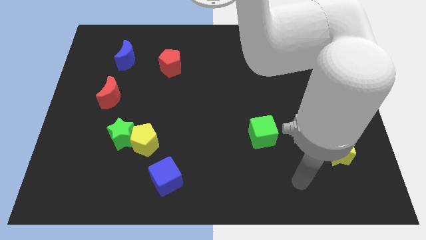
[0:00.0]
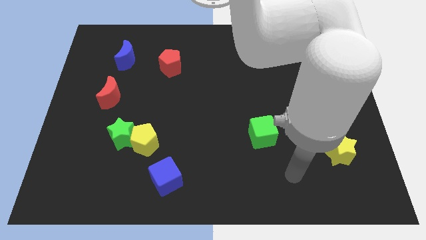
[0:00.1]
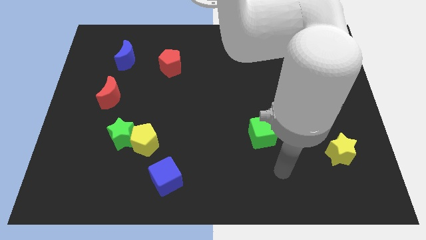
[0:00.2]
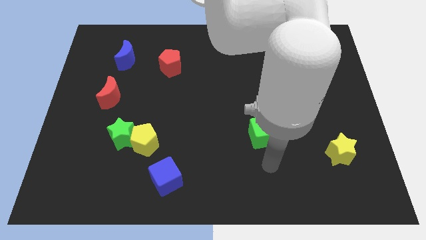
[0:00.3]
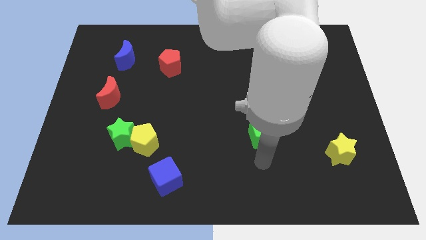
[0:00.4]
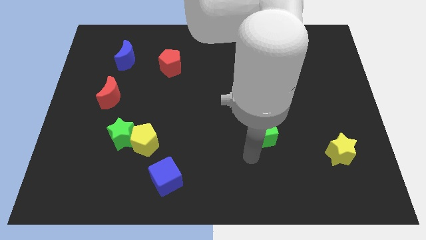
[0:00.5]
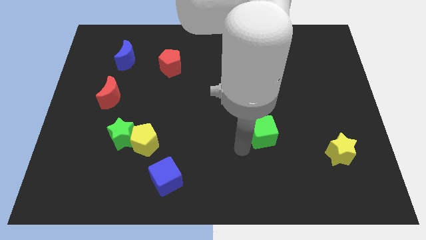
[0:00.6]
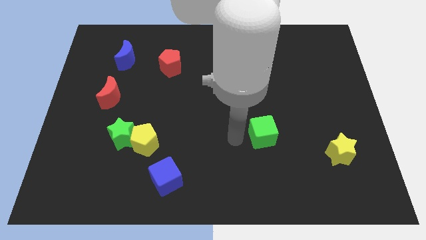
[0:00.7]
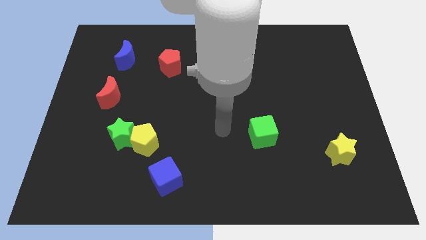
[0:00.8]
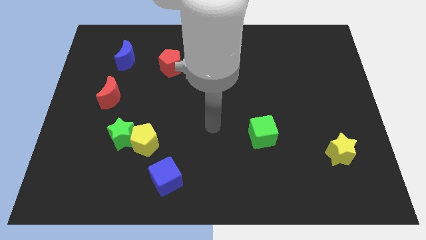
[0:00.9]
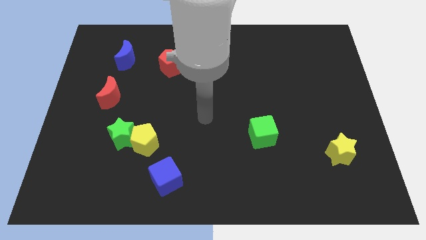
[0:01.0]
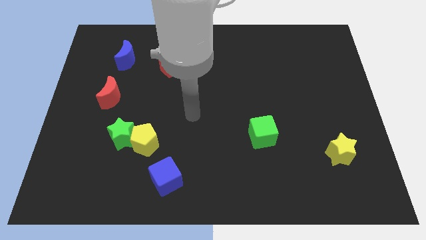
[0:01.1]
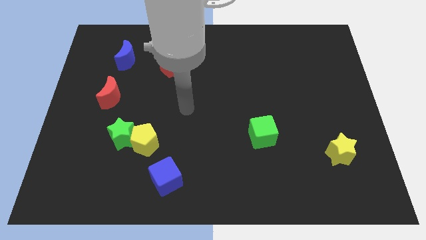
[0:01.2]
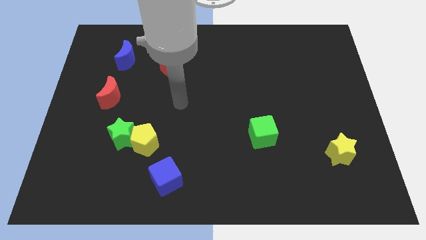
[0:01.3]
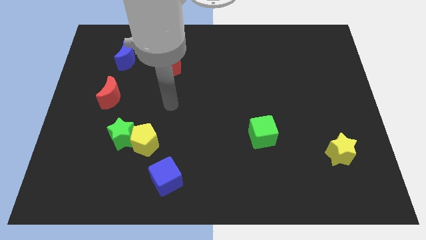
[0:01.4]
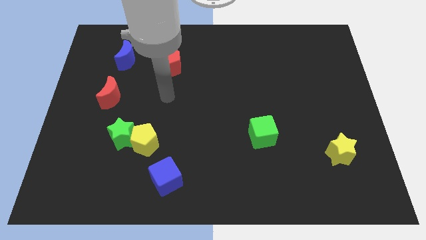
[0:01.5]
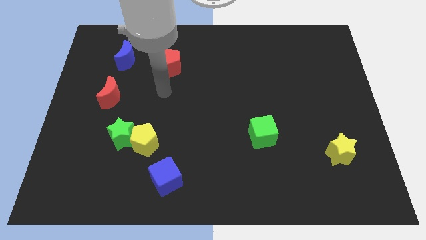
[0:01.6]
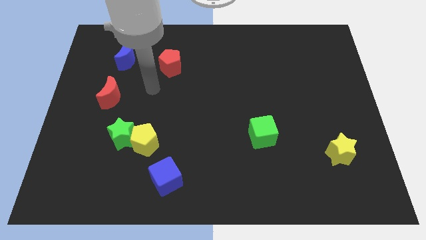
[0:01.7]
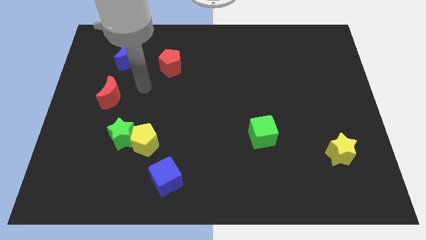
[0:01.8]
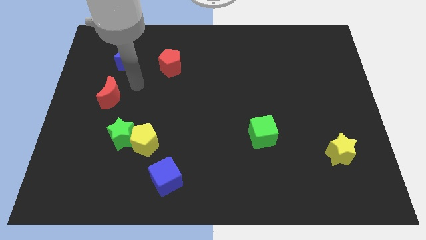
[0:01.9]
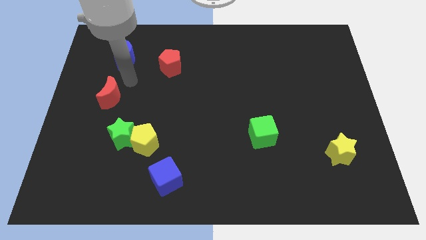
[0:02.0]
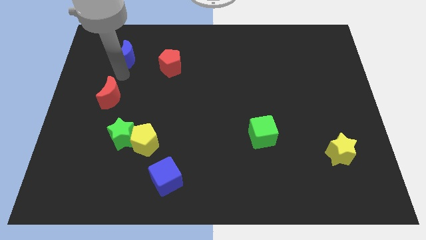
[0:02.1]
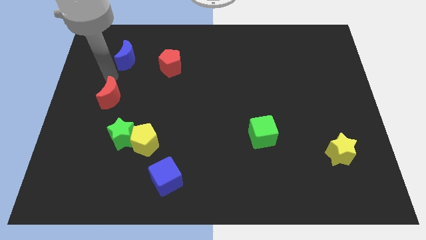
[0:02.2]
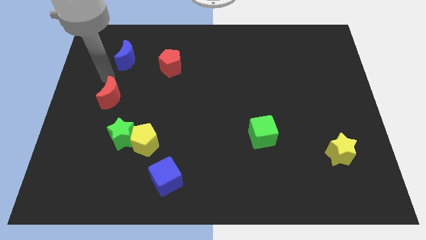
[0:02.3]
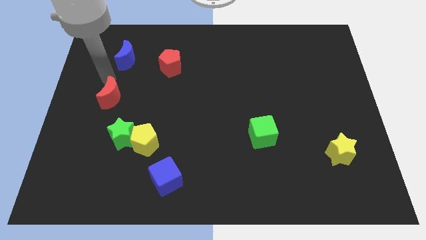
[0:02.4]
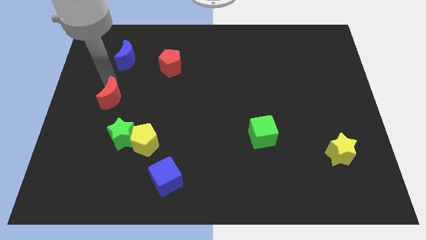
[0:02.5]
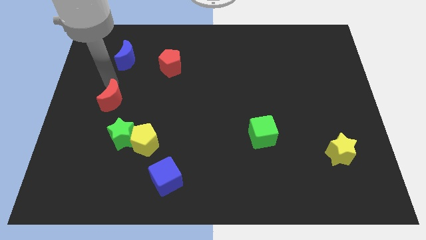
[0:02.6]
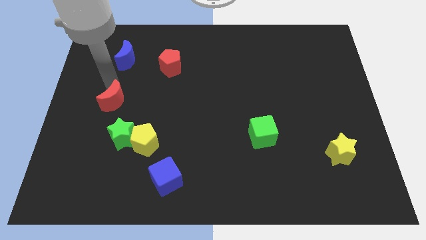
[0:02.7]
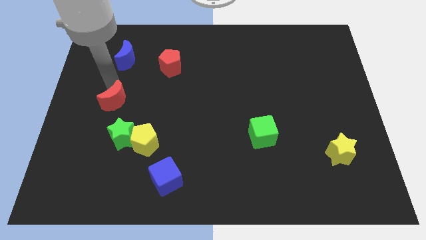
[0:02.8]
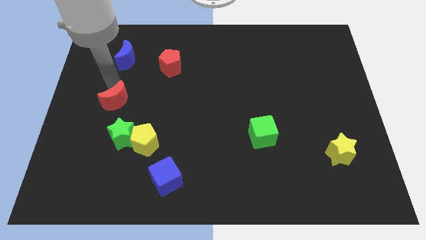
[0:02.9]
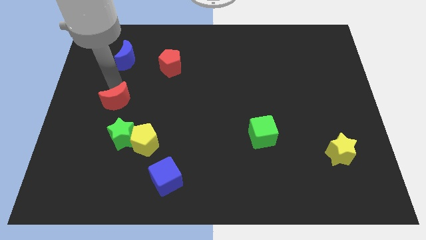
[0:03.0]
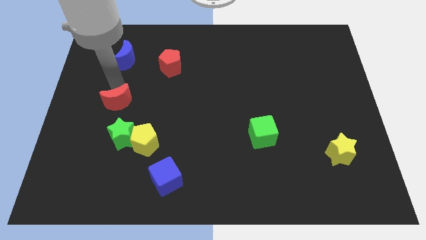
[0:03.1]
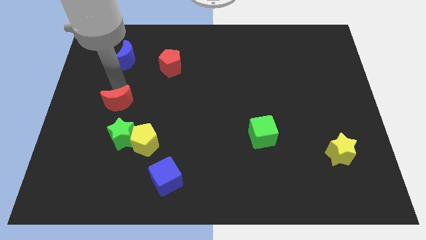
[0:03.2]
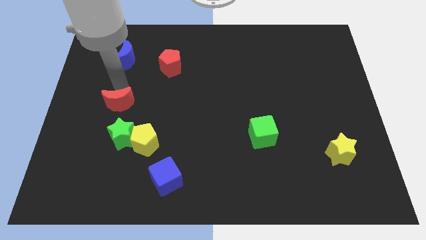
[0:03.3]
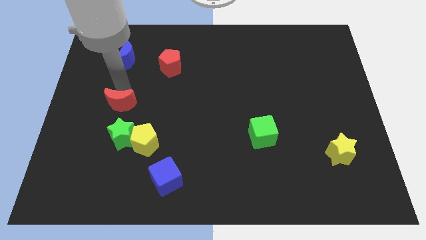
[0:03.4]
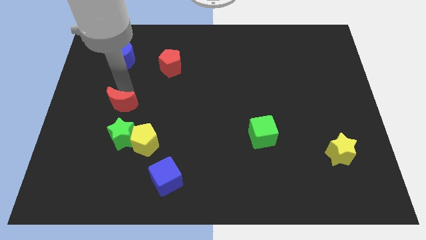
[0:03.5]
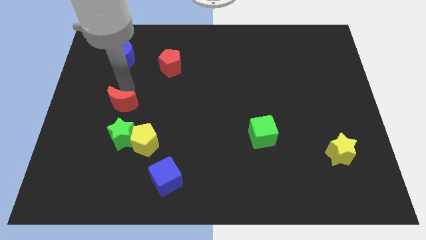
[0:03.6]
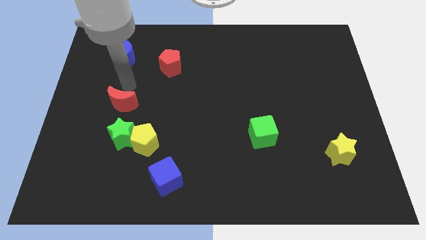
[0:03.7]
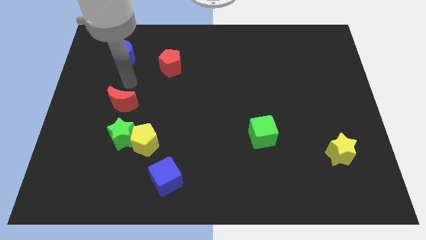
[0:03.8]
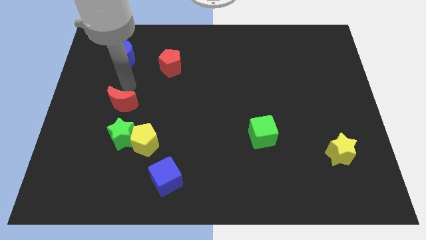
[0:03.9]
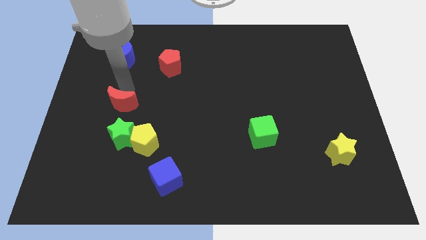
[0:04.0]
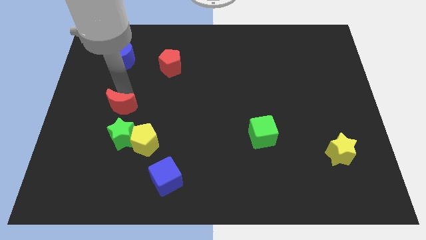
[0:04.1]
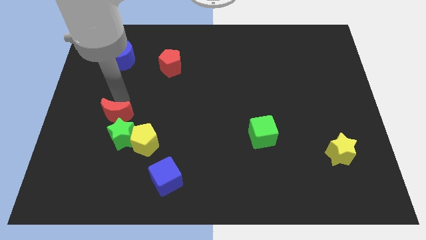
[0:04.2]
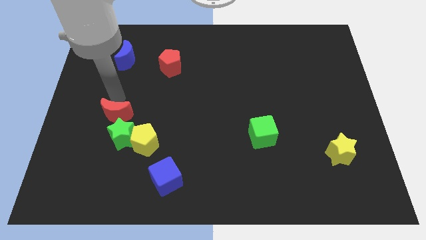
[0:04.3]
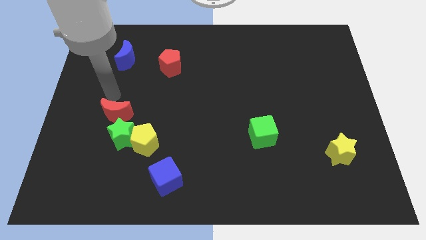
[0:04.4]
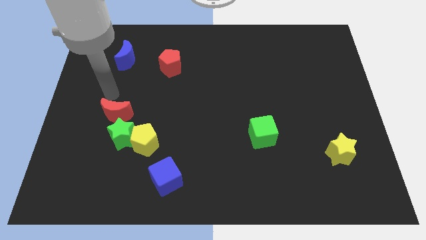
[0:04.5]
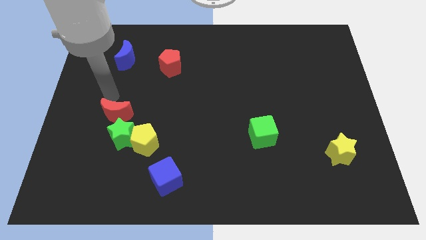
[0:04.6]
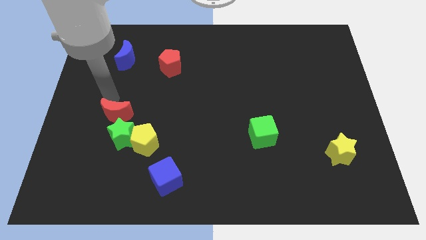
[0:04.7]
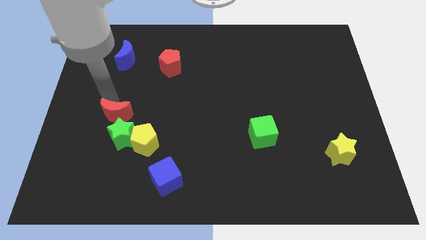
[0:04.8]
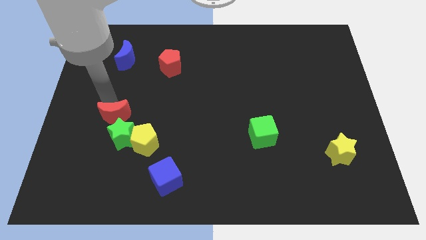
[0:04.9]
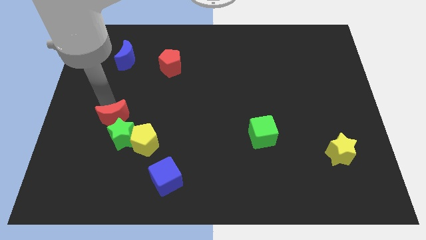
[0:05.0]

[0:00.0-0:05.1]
move the red moon to the green star

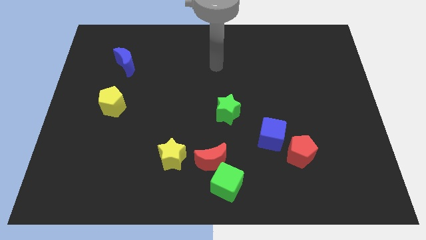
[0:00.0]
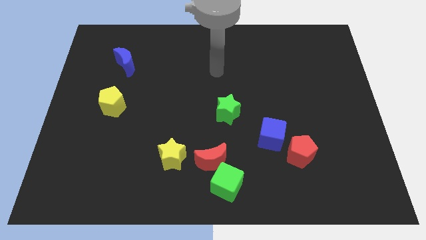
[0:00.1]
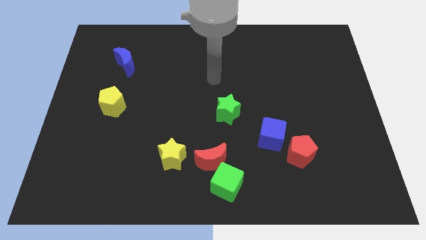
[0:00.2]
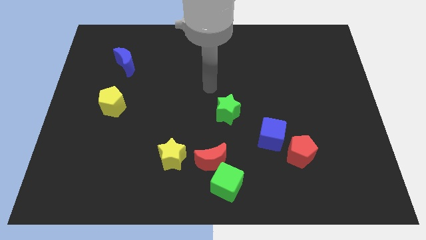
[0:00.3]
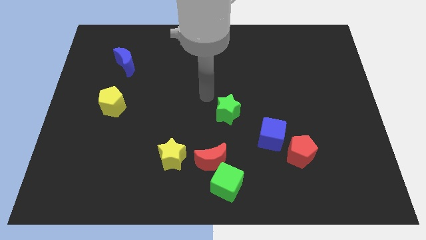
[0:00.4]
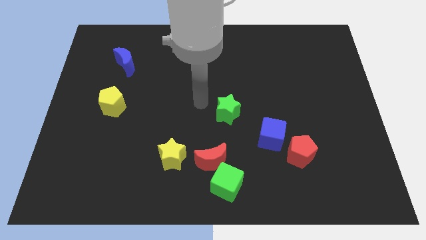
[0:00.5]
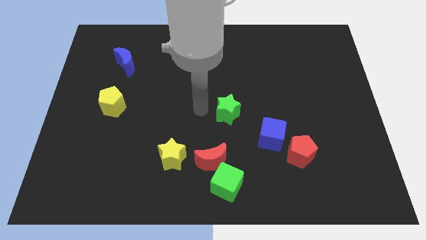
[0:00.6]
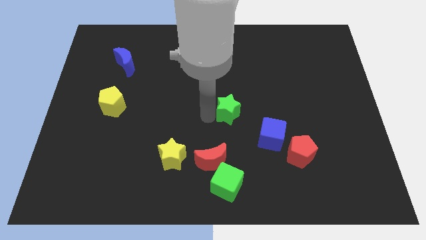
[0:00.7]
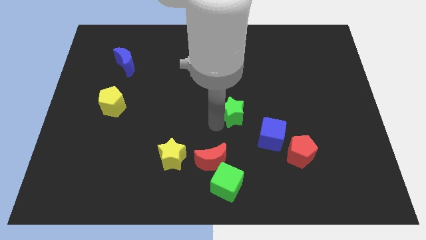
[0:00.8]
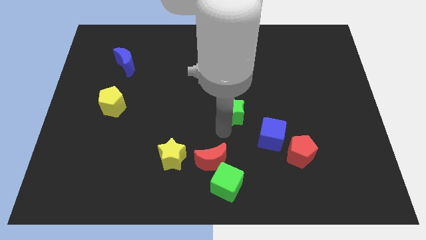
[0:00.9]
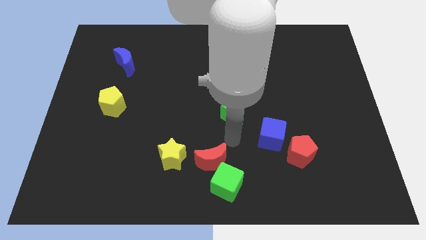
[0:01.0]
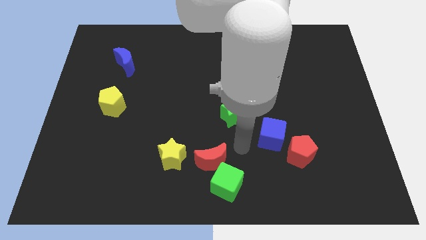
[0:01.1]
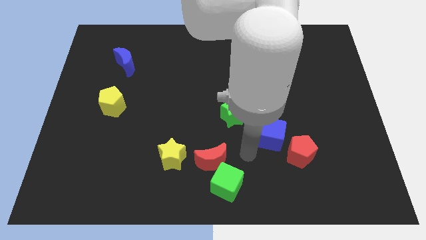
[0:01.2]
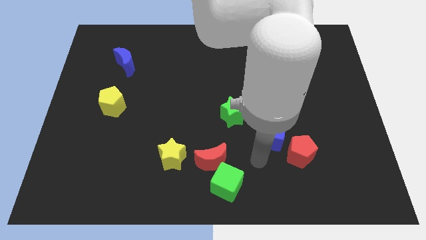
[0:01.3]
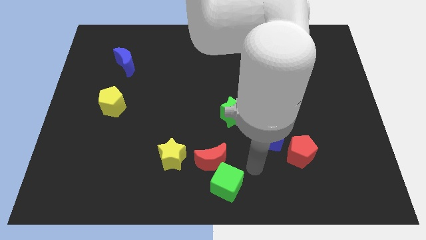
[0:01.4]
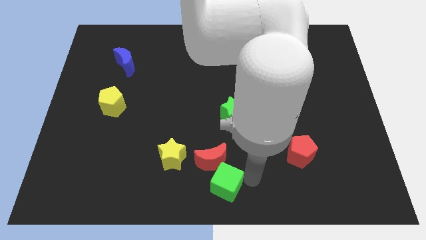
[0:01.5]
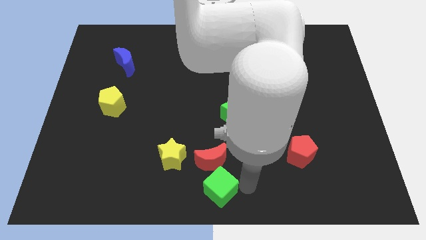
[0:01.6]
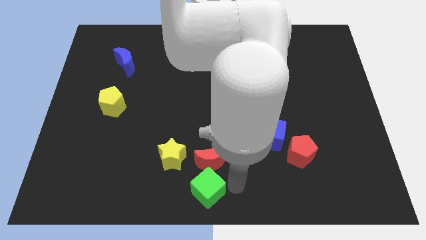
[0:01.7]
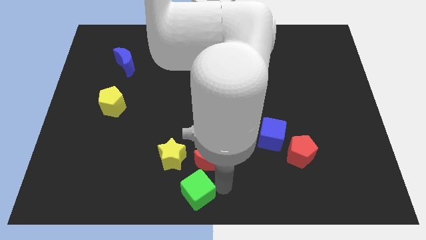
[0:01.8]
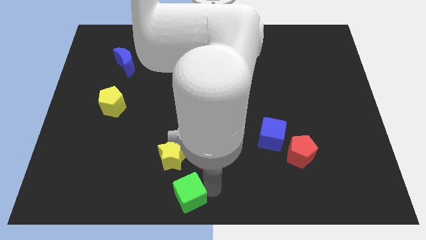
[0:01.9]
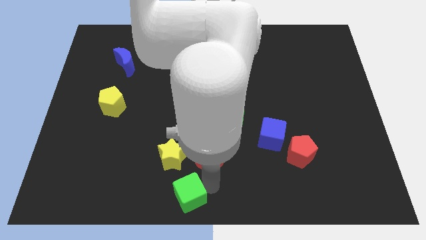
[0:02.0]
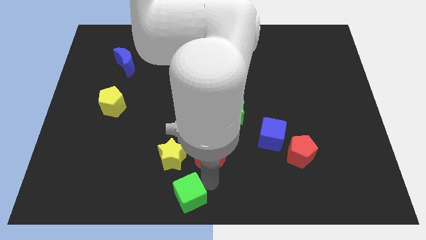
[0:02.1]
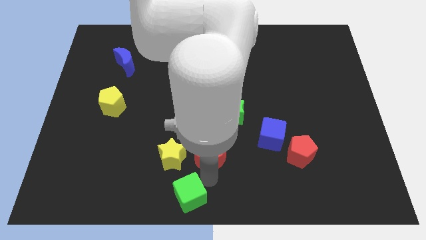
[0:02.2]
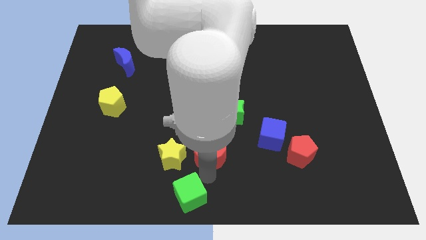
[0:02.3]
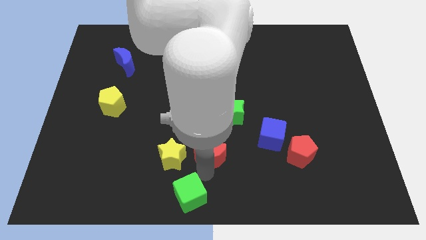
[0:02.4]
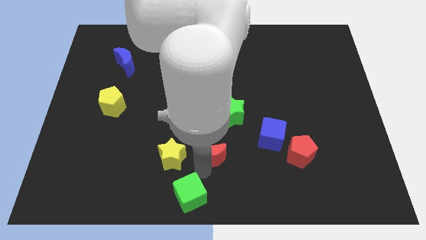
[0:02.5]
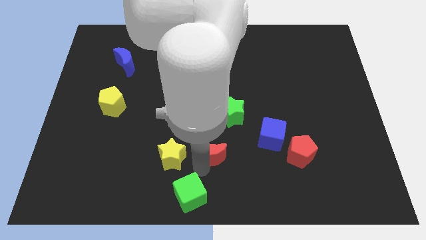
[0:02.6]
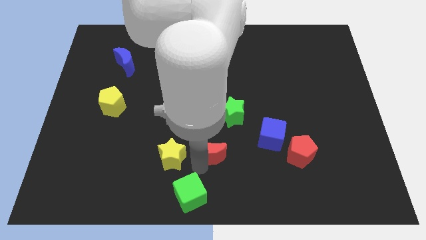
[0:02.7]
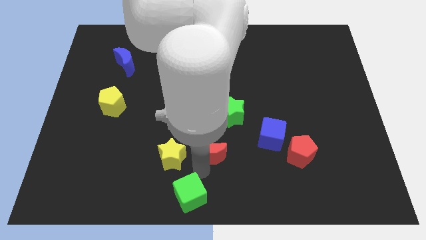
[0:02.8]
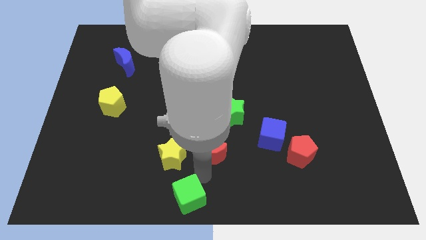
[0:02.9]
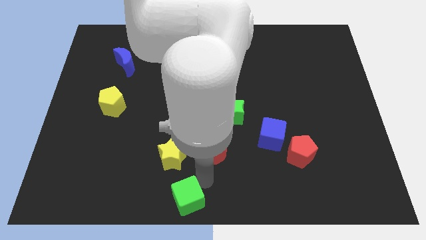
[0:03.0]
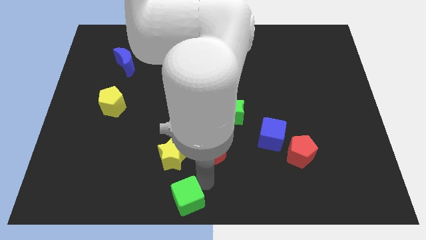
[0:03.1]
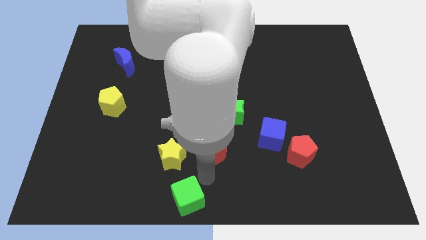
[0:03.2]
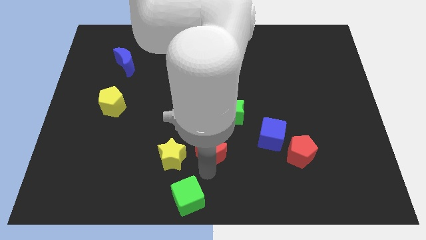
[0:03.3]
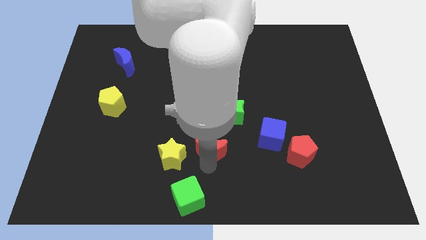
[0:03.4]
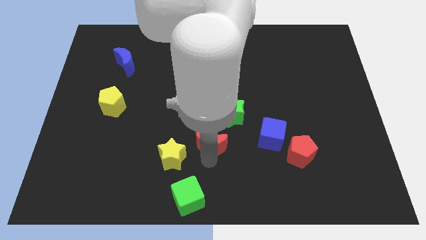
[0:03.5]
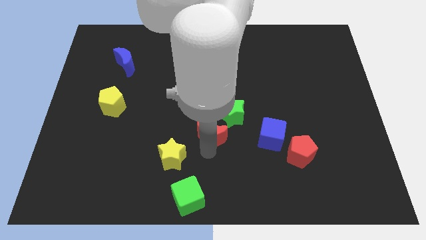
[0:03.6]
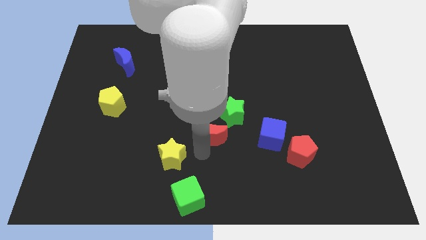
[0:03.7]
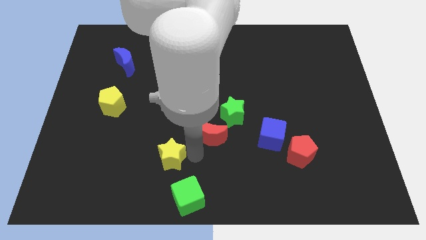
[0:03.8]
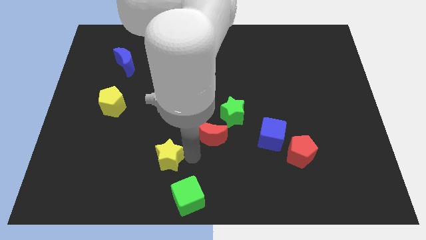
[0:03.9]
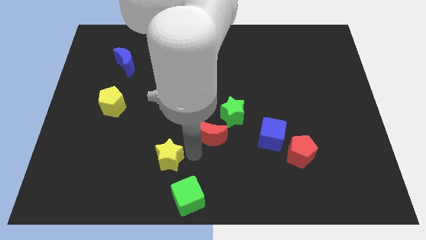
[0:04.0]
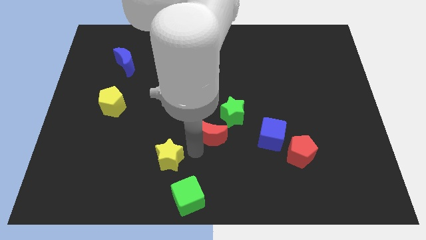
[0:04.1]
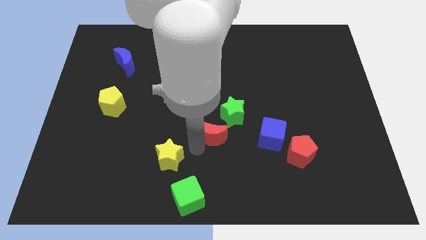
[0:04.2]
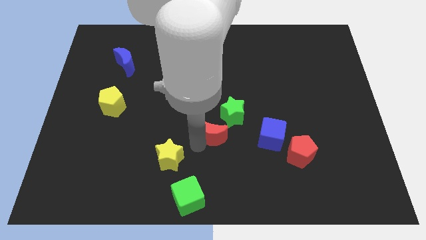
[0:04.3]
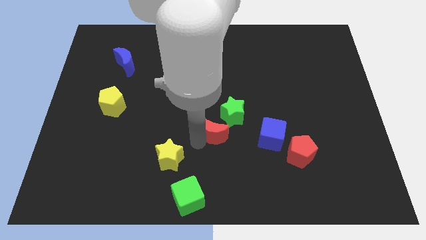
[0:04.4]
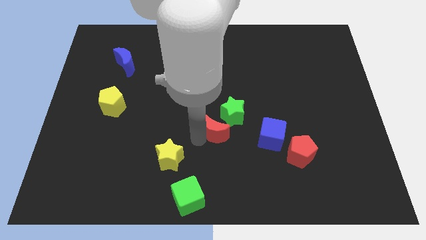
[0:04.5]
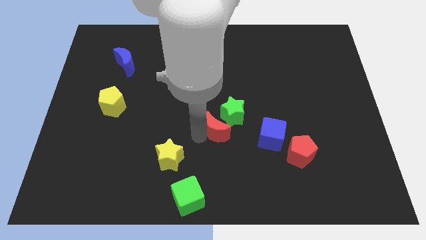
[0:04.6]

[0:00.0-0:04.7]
push the red moon close to the green star
